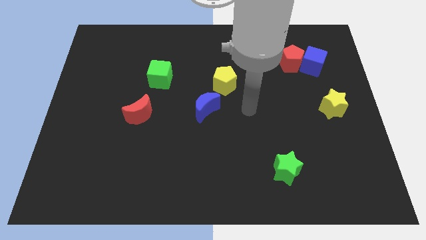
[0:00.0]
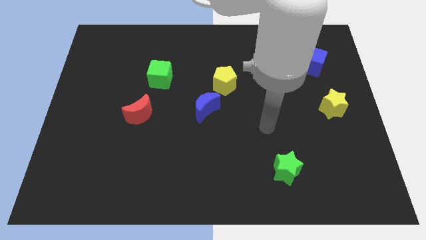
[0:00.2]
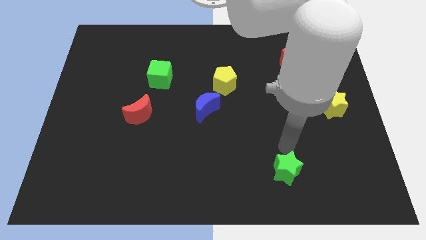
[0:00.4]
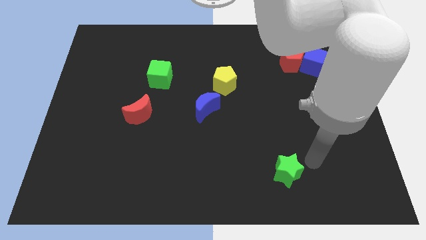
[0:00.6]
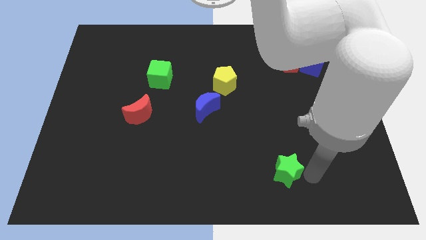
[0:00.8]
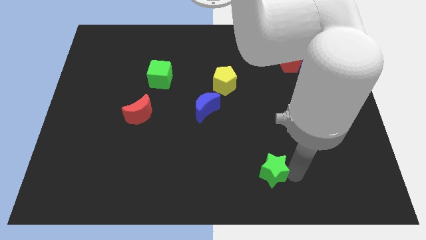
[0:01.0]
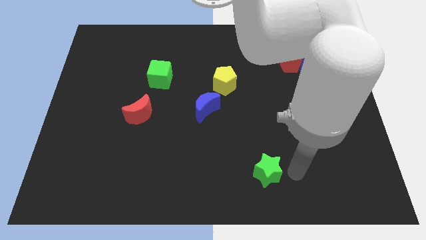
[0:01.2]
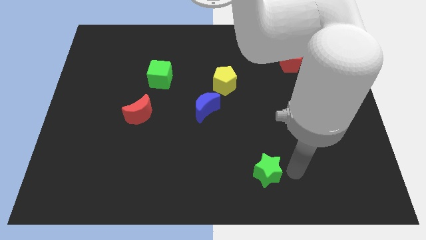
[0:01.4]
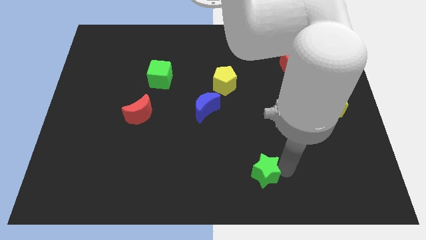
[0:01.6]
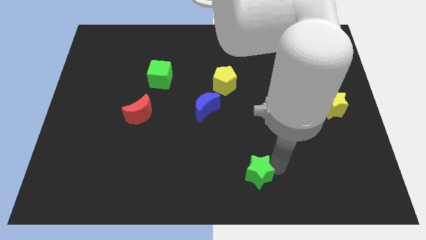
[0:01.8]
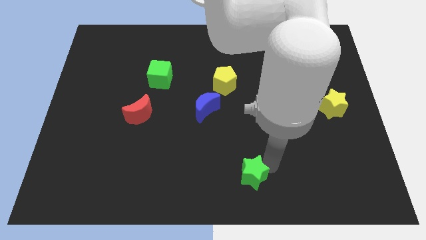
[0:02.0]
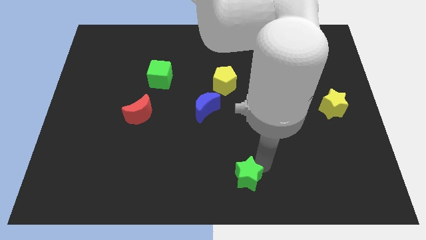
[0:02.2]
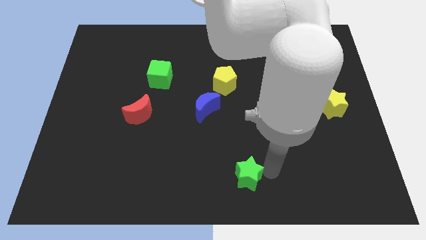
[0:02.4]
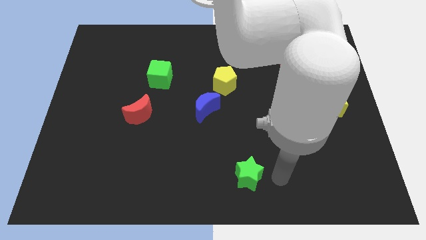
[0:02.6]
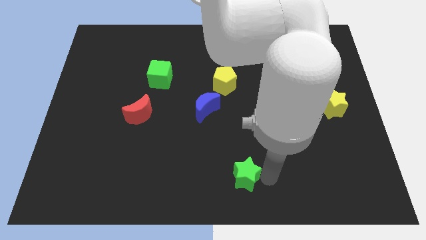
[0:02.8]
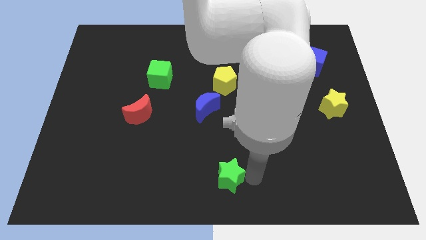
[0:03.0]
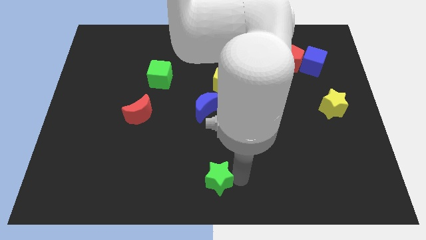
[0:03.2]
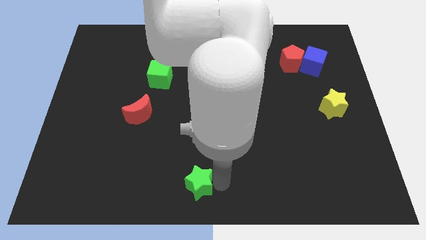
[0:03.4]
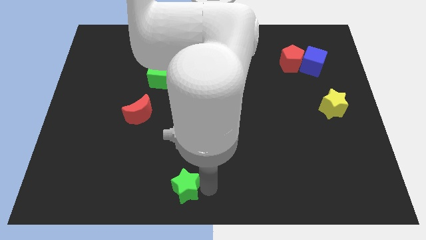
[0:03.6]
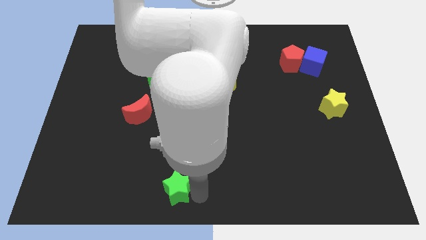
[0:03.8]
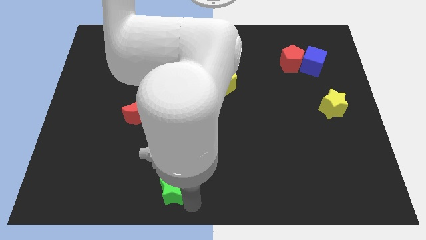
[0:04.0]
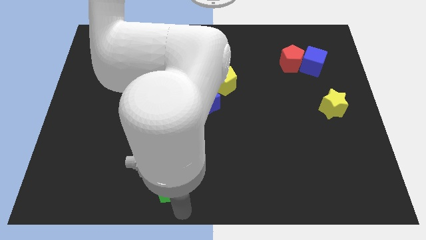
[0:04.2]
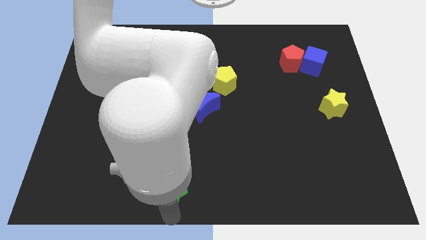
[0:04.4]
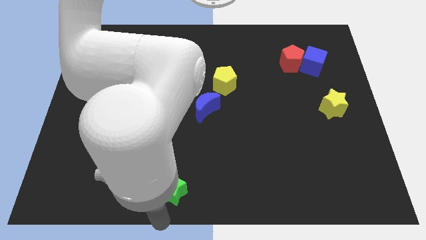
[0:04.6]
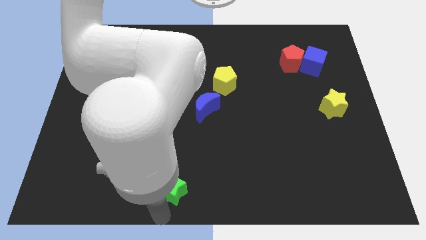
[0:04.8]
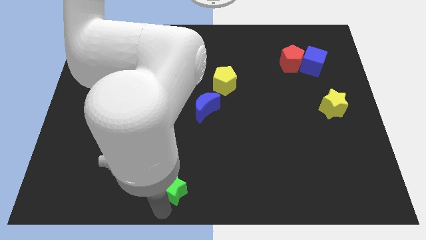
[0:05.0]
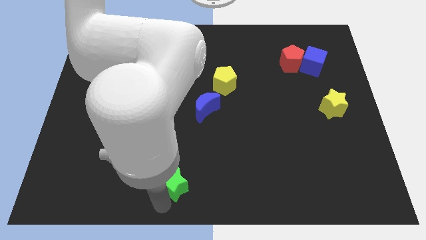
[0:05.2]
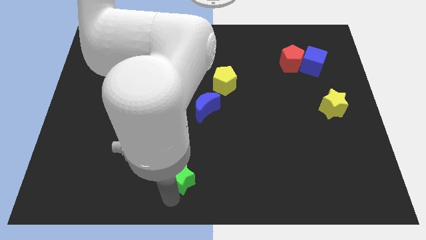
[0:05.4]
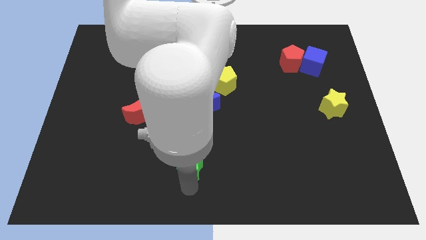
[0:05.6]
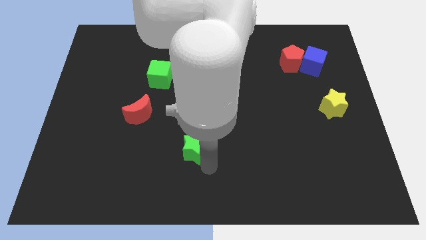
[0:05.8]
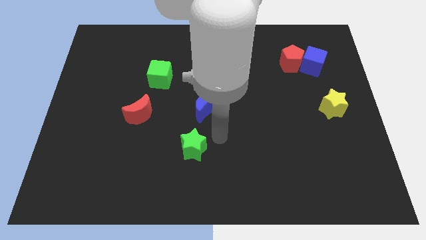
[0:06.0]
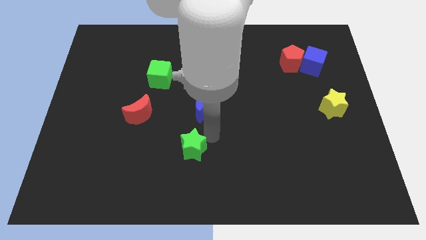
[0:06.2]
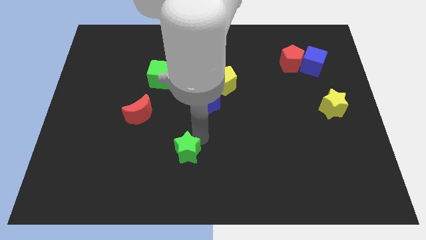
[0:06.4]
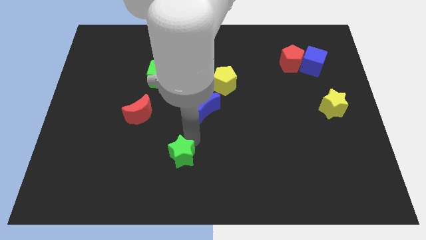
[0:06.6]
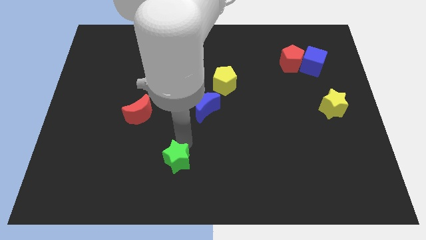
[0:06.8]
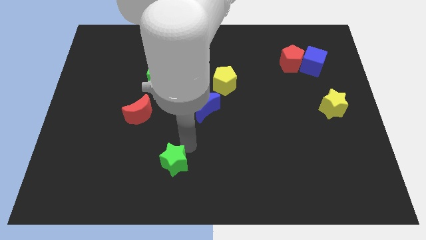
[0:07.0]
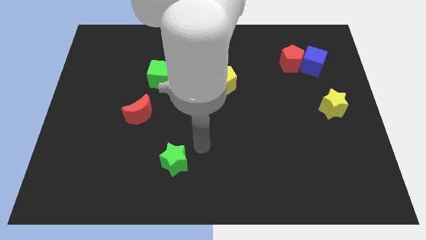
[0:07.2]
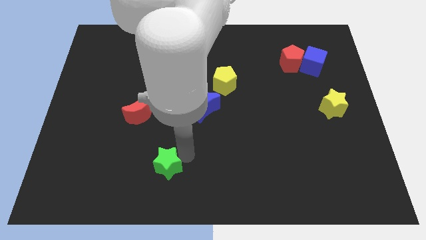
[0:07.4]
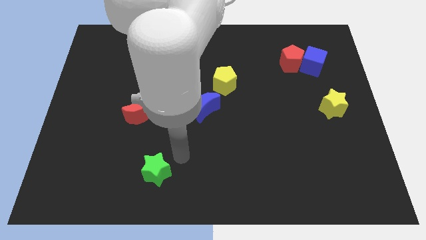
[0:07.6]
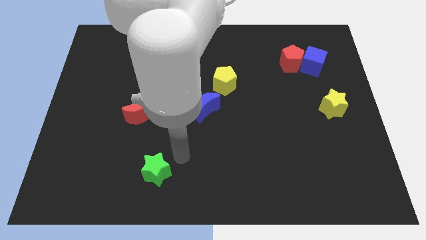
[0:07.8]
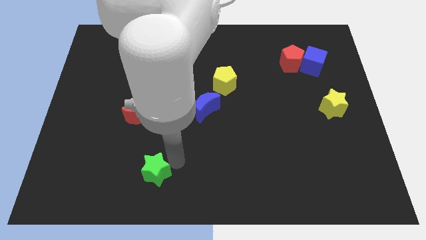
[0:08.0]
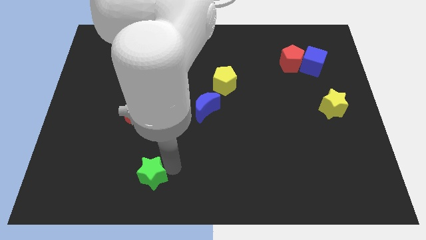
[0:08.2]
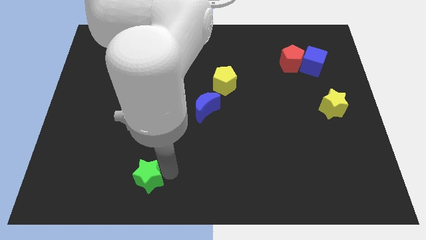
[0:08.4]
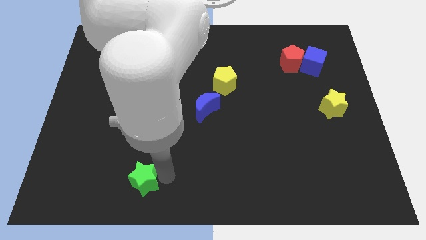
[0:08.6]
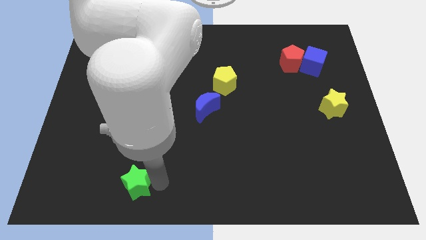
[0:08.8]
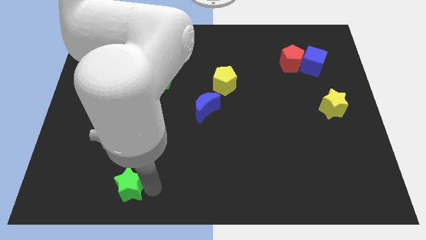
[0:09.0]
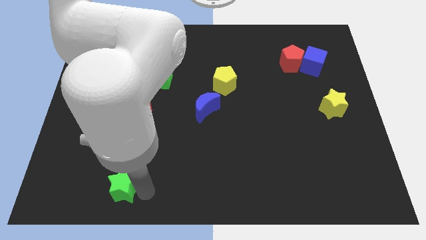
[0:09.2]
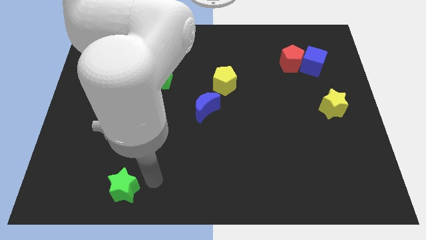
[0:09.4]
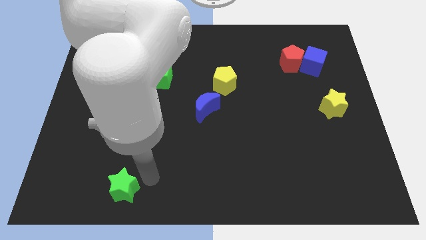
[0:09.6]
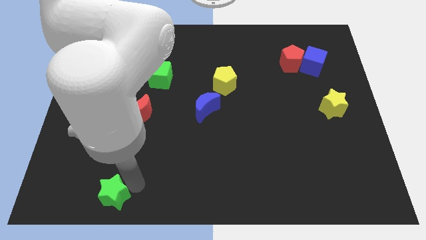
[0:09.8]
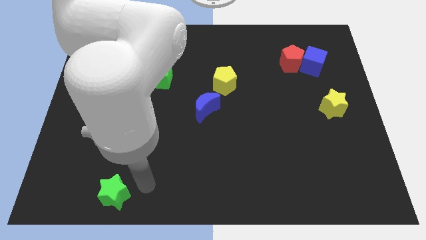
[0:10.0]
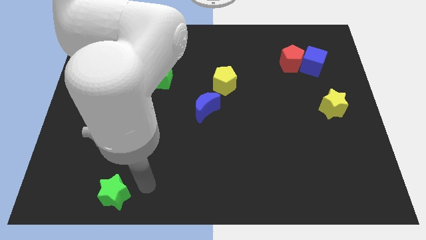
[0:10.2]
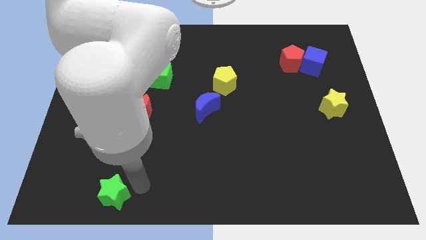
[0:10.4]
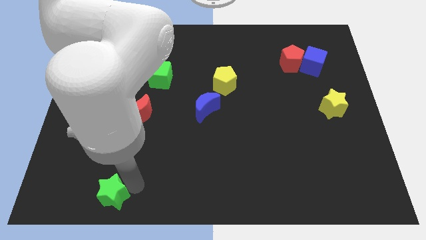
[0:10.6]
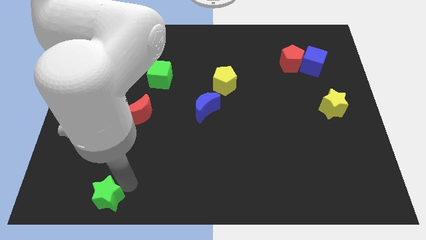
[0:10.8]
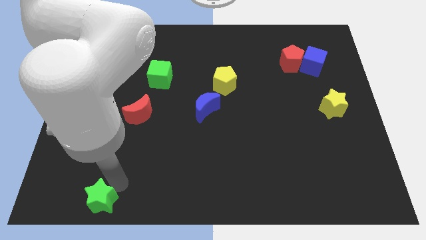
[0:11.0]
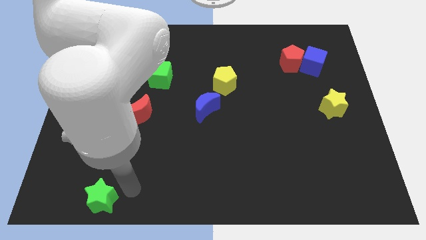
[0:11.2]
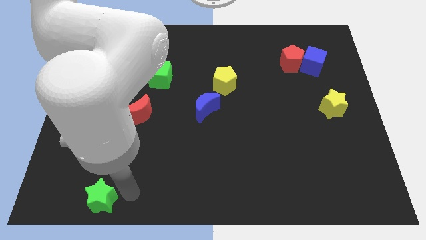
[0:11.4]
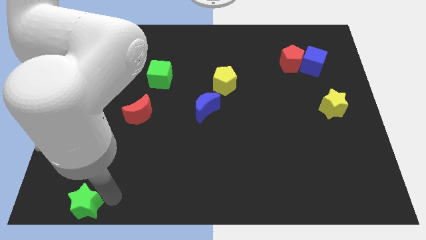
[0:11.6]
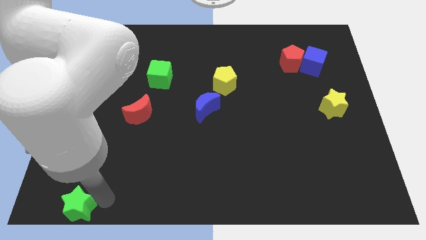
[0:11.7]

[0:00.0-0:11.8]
push the green star to the bottom left
